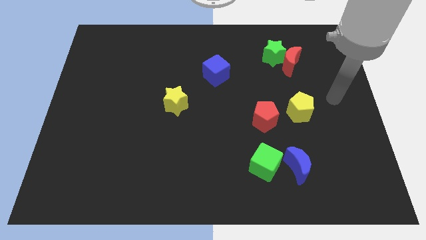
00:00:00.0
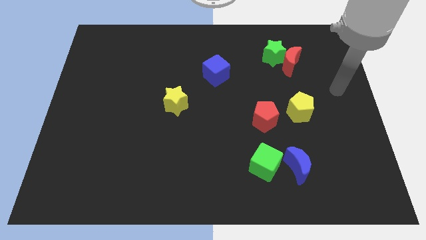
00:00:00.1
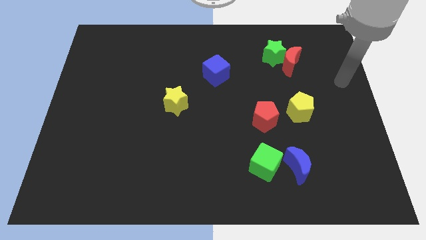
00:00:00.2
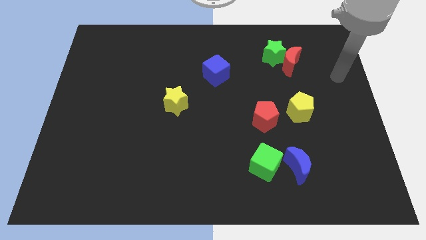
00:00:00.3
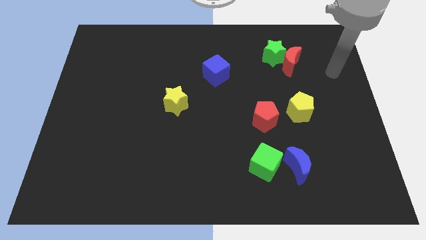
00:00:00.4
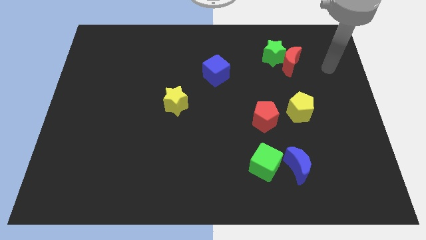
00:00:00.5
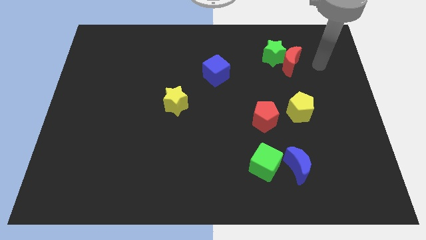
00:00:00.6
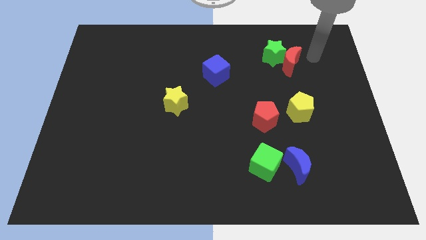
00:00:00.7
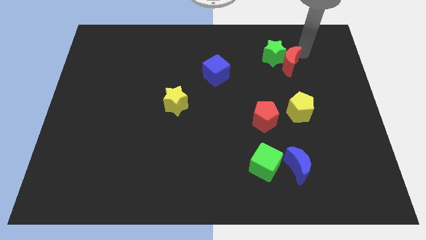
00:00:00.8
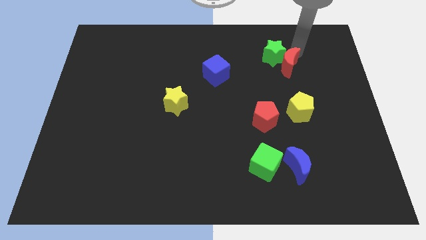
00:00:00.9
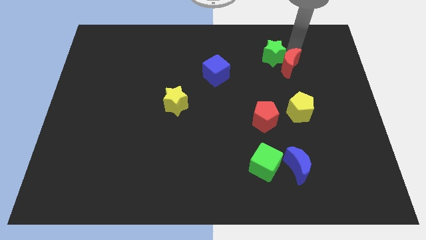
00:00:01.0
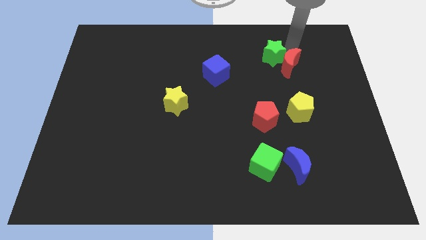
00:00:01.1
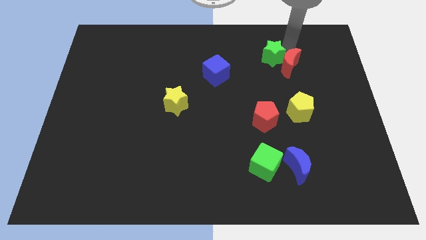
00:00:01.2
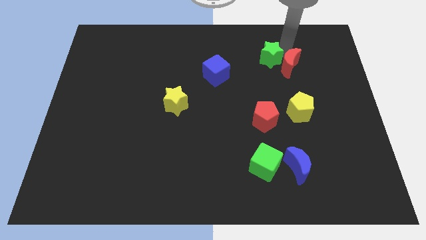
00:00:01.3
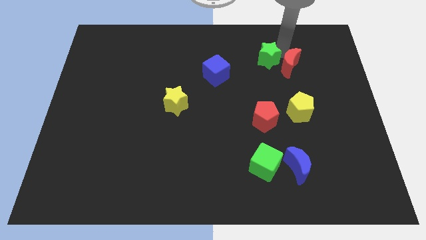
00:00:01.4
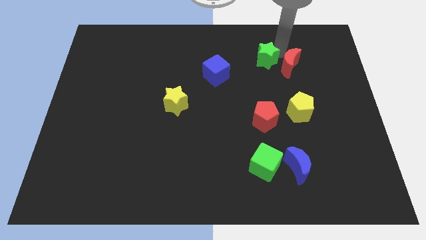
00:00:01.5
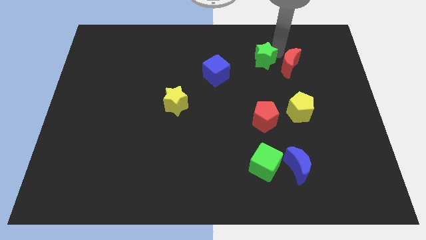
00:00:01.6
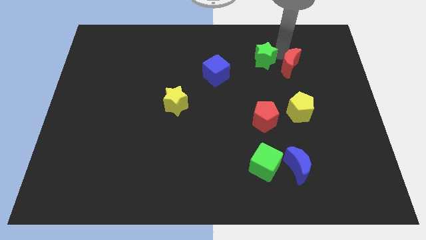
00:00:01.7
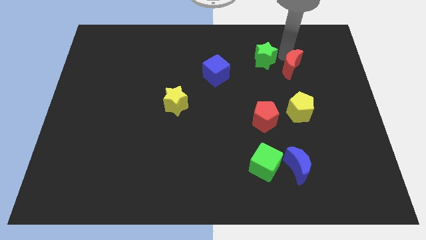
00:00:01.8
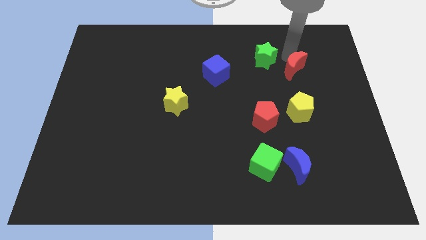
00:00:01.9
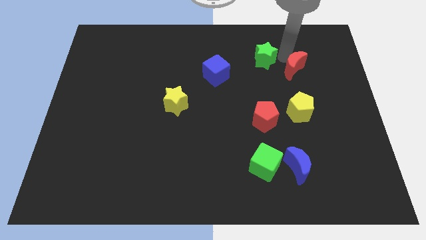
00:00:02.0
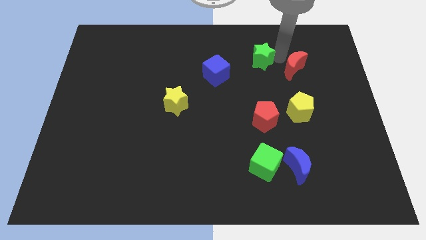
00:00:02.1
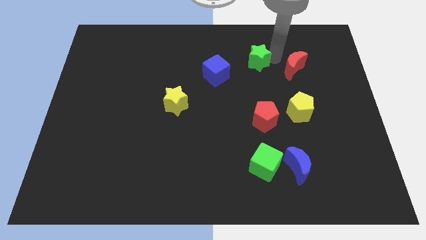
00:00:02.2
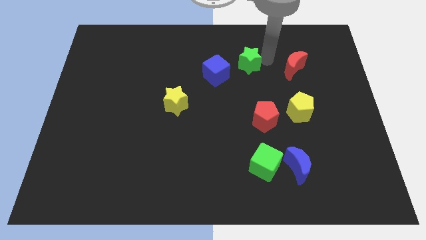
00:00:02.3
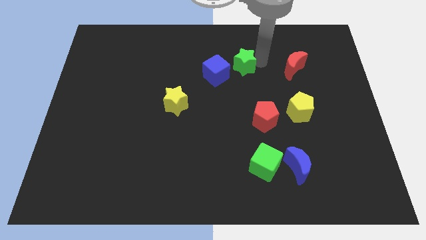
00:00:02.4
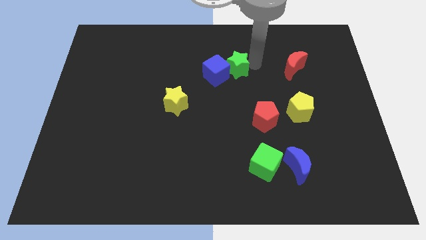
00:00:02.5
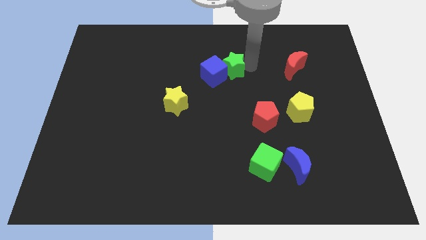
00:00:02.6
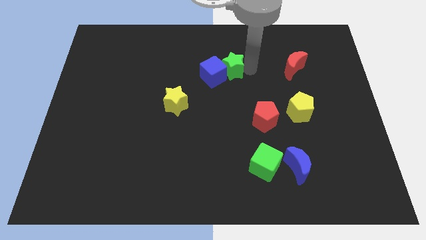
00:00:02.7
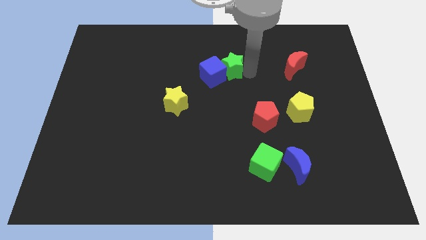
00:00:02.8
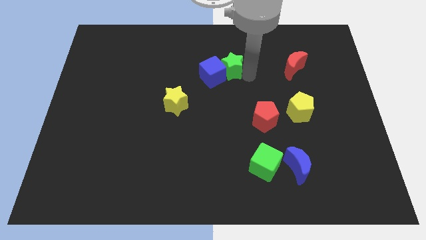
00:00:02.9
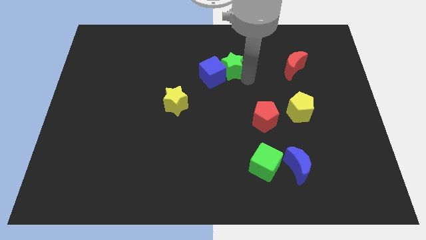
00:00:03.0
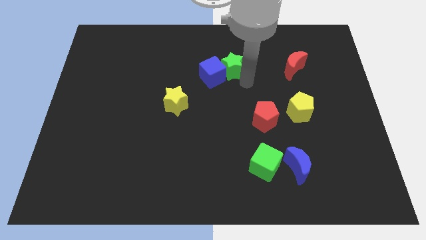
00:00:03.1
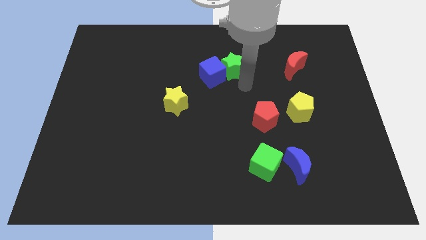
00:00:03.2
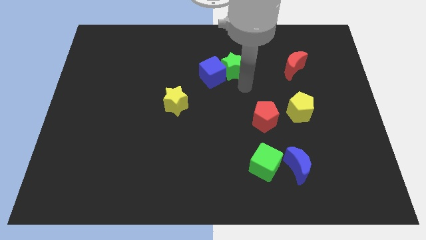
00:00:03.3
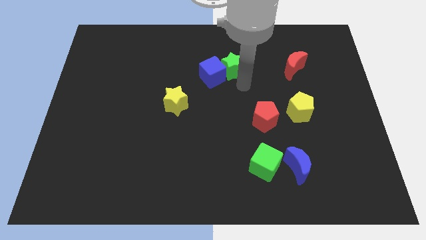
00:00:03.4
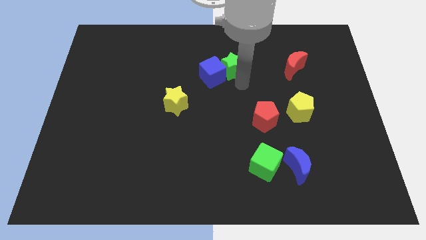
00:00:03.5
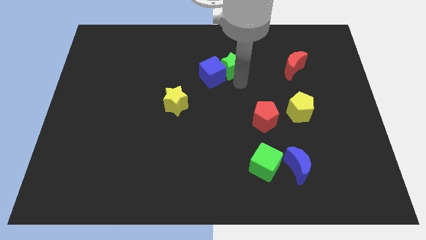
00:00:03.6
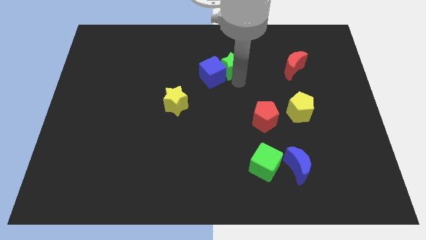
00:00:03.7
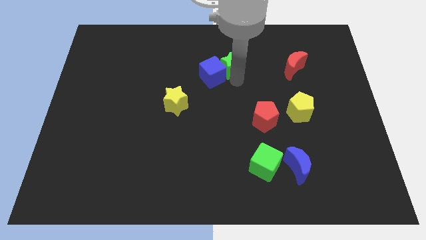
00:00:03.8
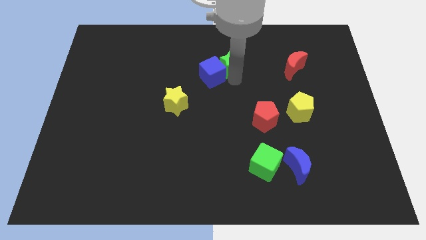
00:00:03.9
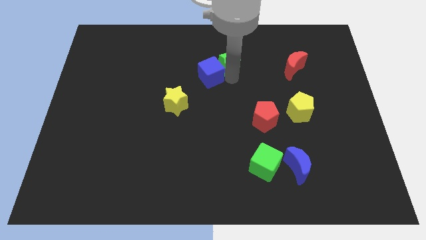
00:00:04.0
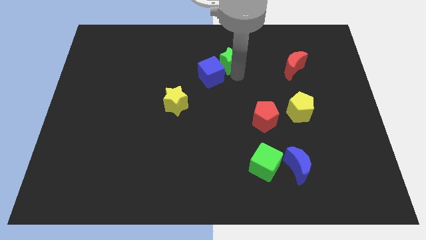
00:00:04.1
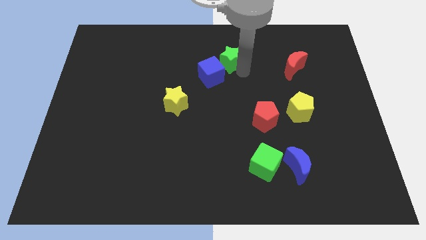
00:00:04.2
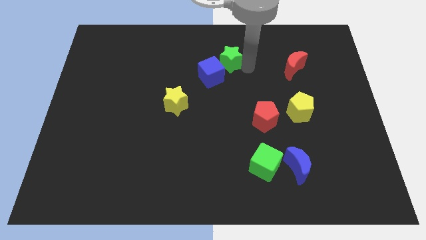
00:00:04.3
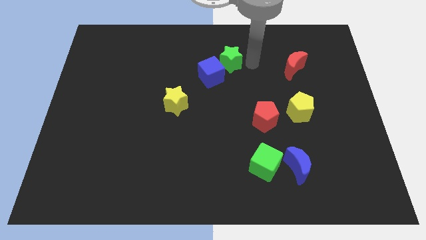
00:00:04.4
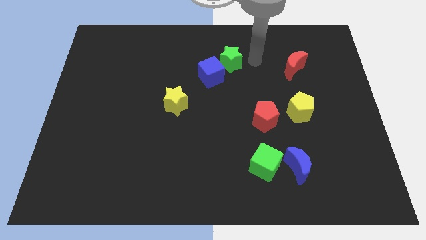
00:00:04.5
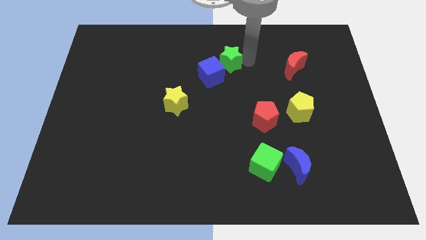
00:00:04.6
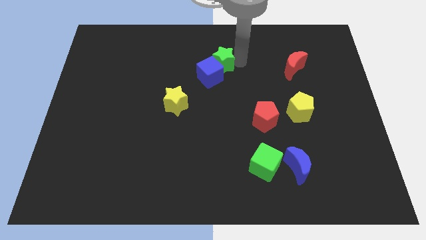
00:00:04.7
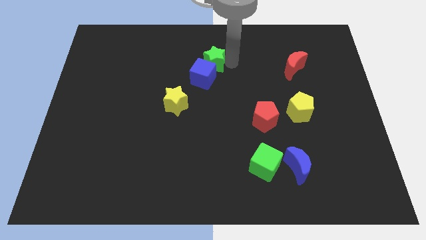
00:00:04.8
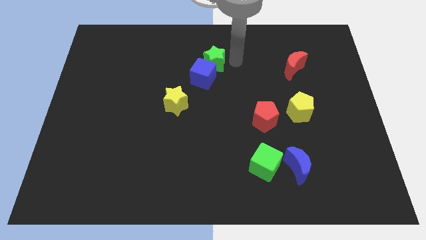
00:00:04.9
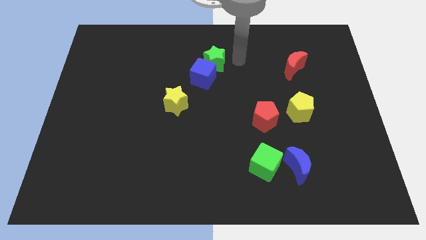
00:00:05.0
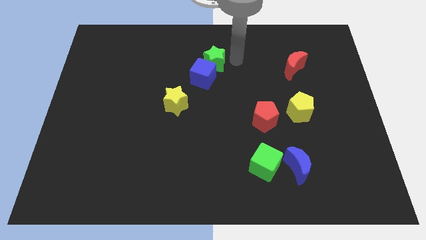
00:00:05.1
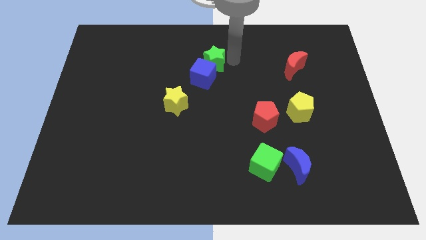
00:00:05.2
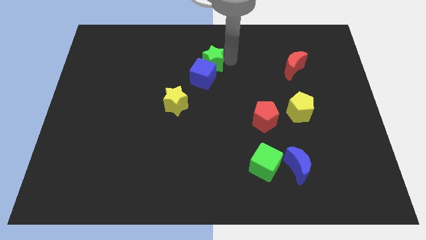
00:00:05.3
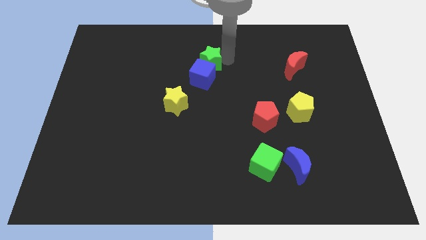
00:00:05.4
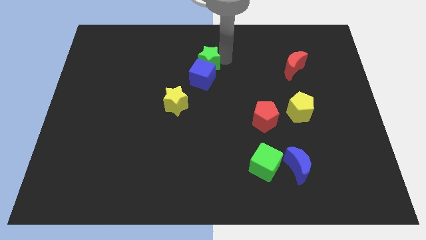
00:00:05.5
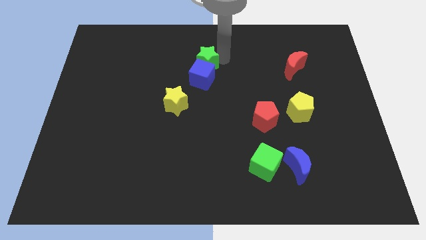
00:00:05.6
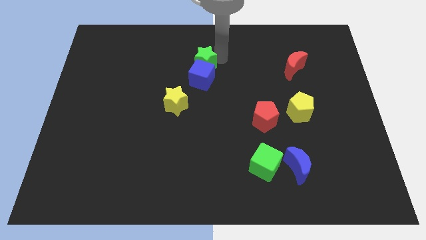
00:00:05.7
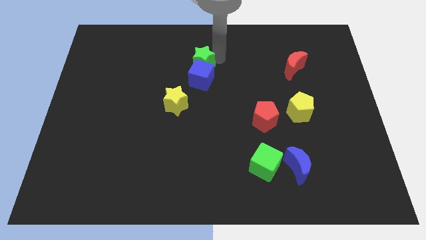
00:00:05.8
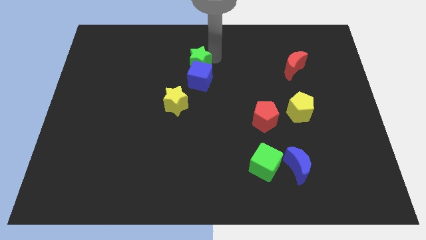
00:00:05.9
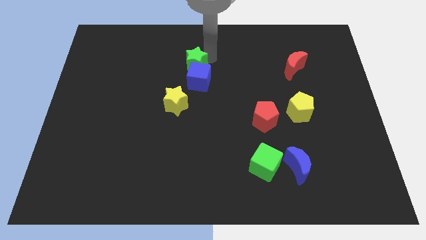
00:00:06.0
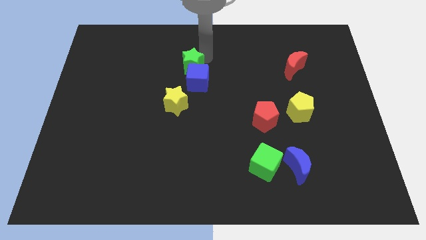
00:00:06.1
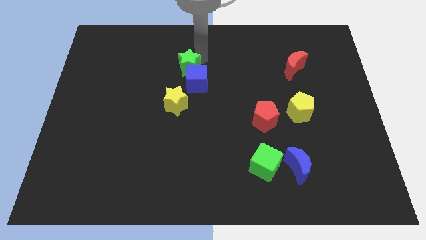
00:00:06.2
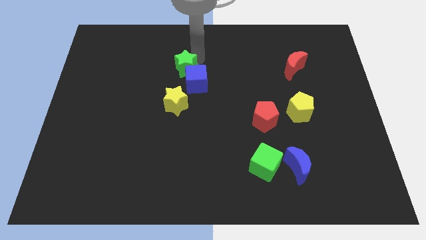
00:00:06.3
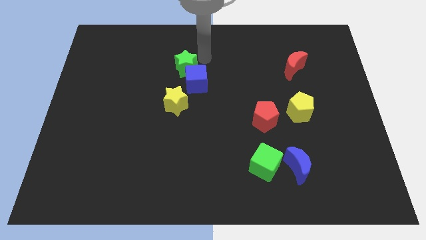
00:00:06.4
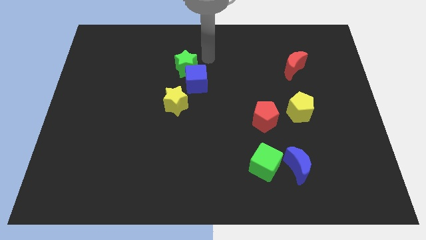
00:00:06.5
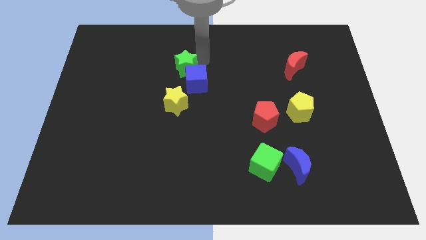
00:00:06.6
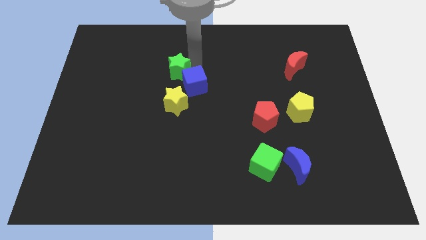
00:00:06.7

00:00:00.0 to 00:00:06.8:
put the green star to the left side of the blue cube

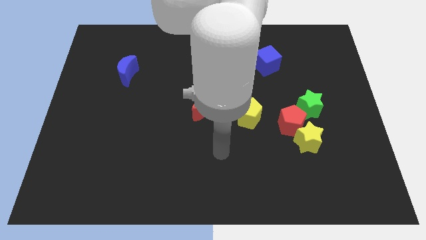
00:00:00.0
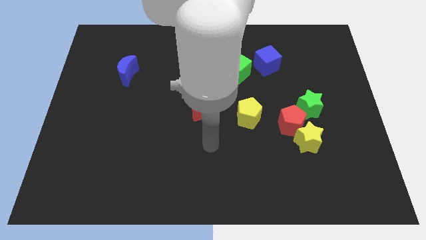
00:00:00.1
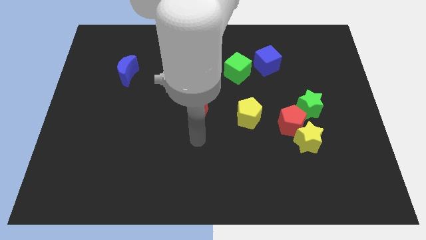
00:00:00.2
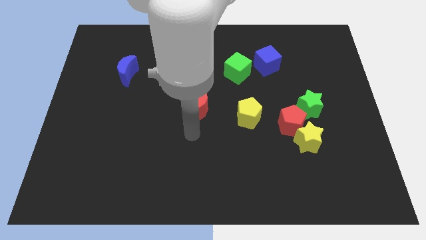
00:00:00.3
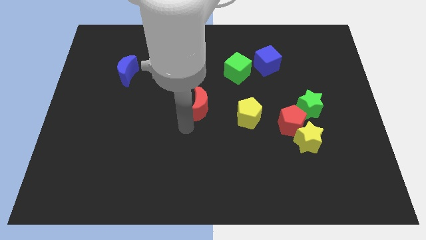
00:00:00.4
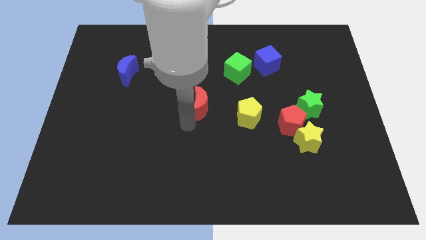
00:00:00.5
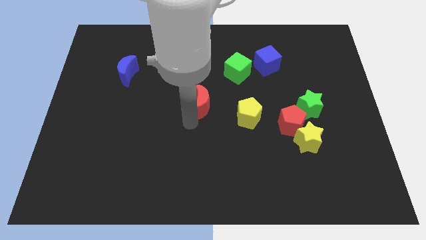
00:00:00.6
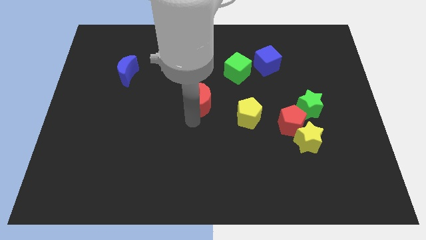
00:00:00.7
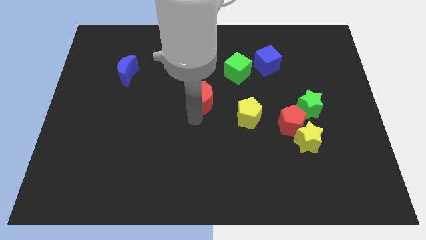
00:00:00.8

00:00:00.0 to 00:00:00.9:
put the red moon to the bottom left side of the green cube

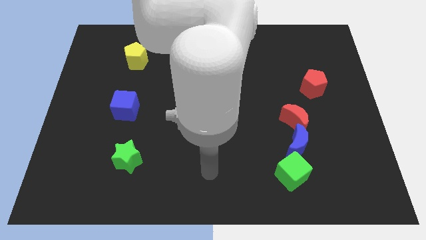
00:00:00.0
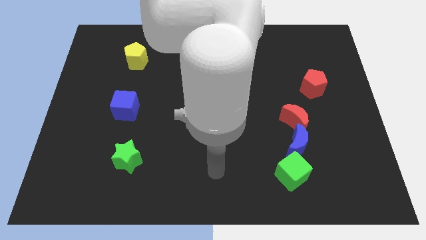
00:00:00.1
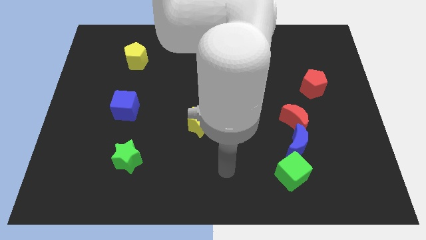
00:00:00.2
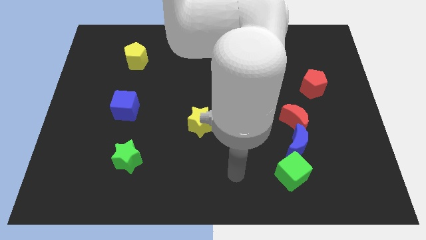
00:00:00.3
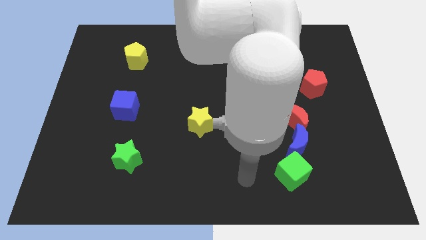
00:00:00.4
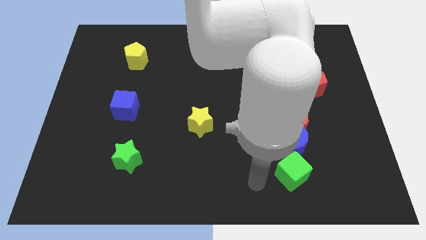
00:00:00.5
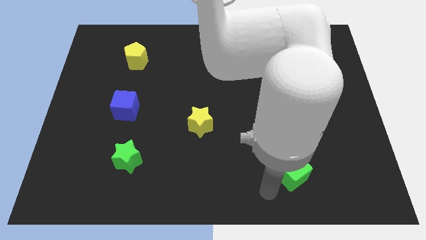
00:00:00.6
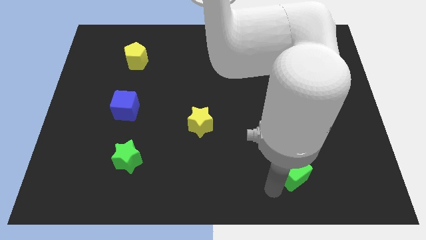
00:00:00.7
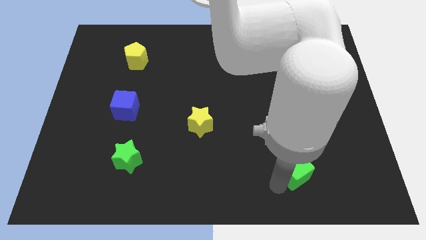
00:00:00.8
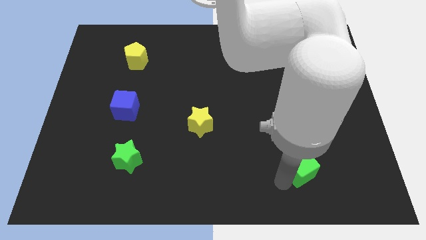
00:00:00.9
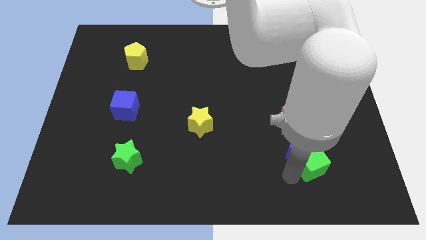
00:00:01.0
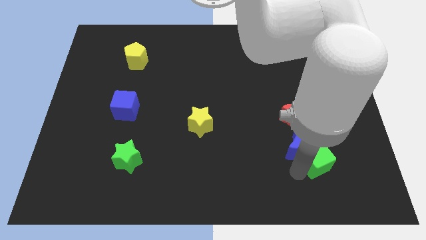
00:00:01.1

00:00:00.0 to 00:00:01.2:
move the green cube right of the blue moon
